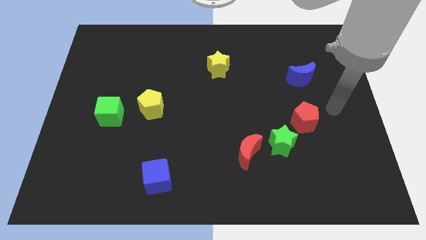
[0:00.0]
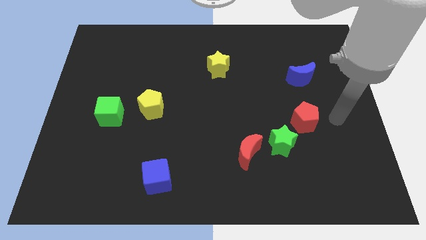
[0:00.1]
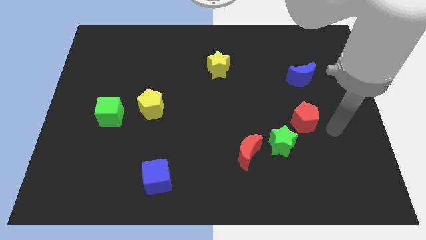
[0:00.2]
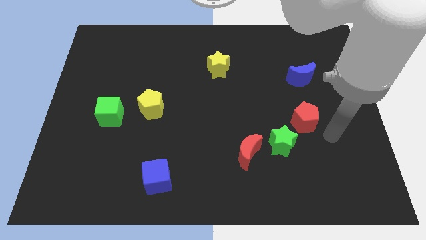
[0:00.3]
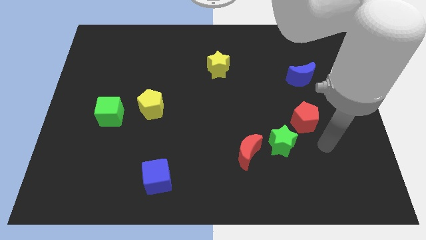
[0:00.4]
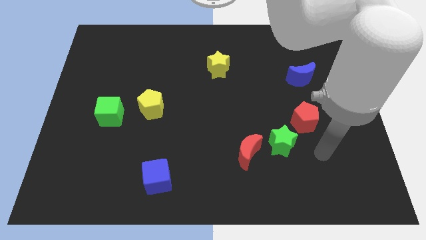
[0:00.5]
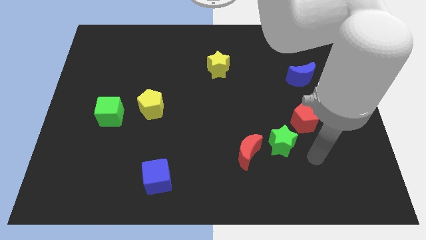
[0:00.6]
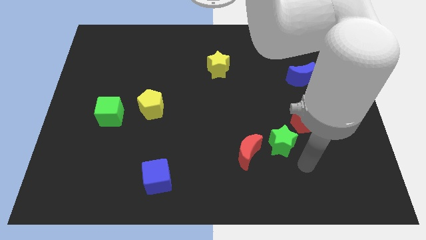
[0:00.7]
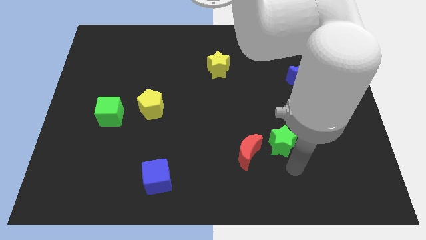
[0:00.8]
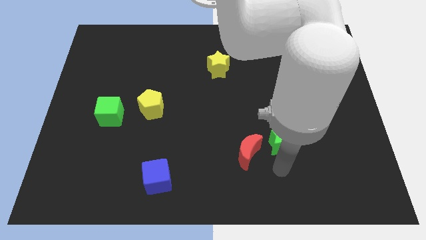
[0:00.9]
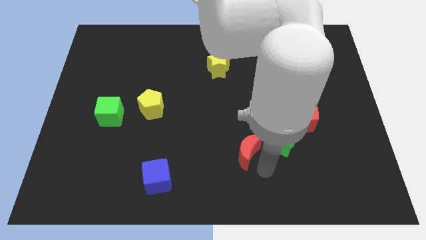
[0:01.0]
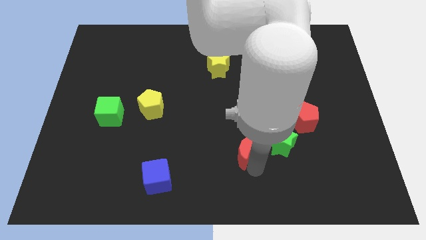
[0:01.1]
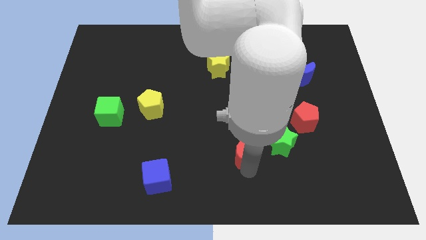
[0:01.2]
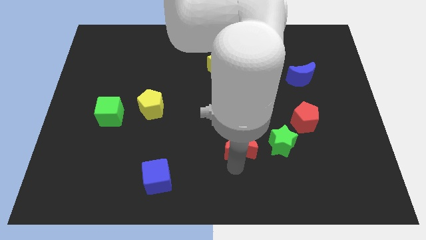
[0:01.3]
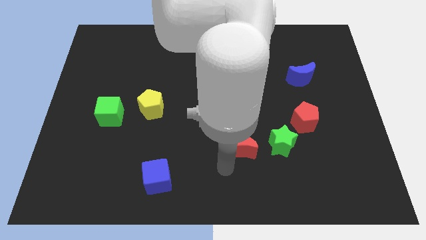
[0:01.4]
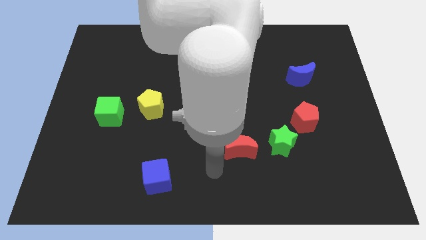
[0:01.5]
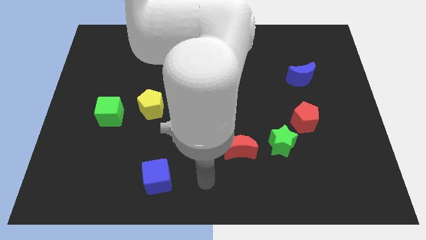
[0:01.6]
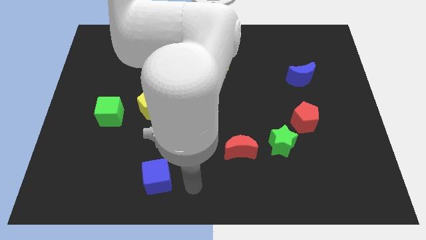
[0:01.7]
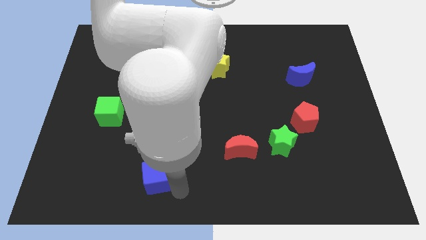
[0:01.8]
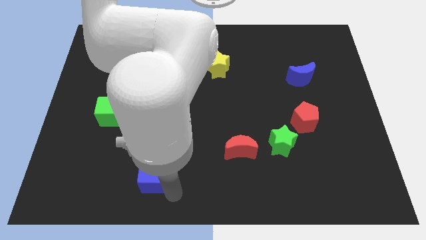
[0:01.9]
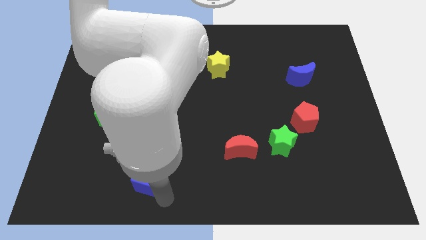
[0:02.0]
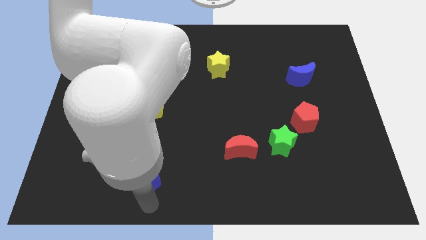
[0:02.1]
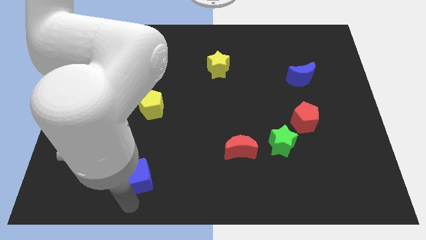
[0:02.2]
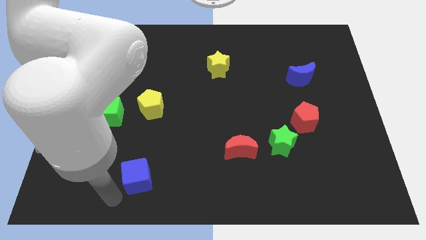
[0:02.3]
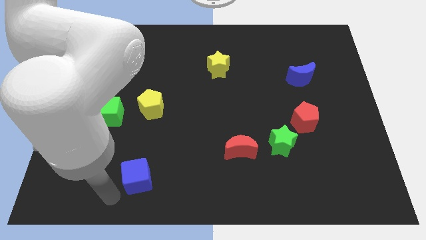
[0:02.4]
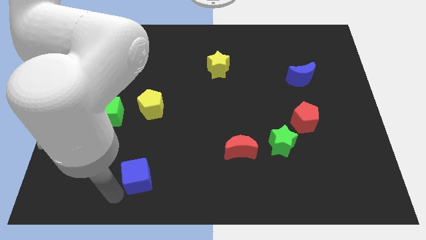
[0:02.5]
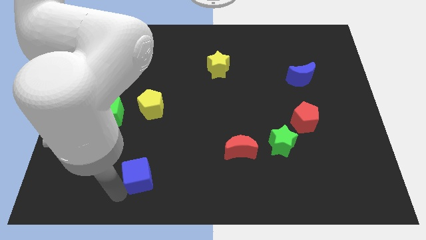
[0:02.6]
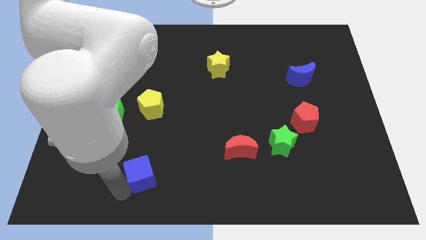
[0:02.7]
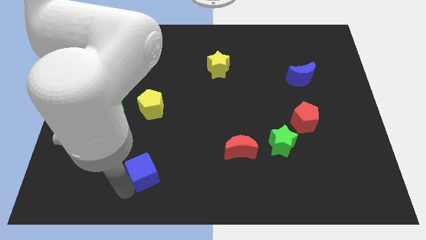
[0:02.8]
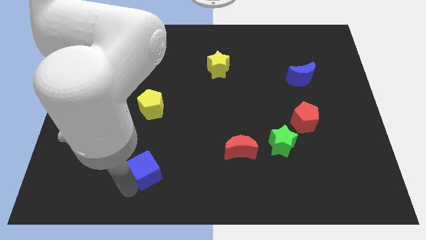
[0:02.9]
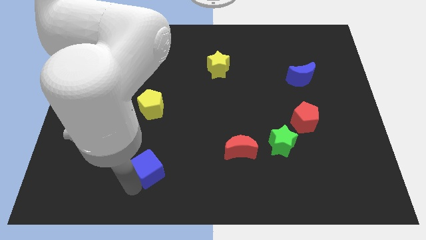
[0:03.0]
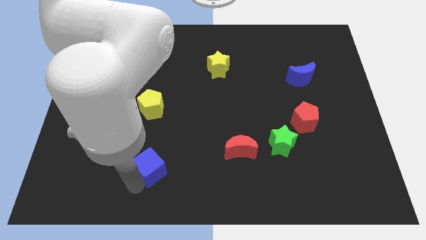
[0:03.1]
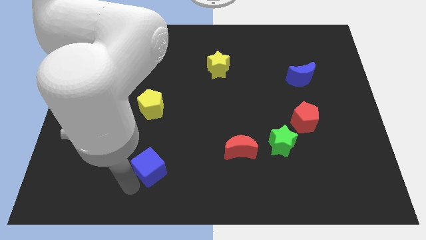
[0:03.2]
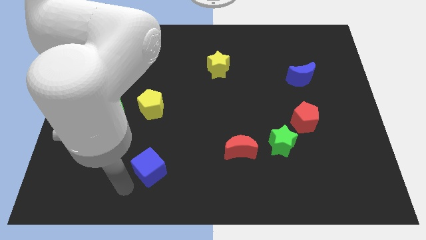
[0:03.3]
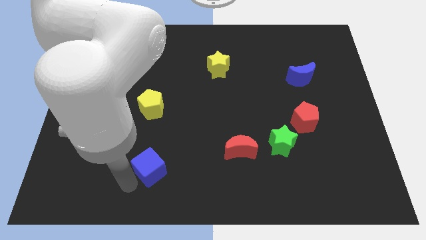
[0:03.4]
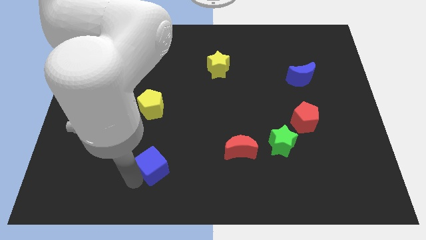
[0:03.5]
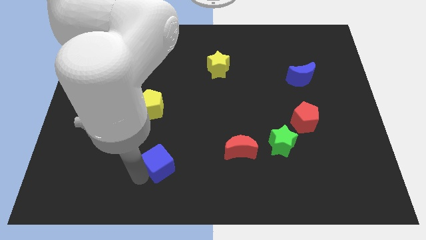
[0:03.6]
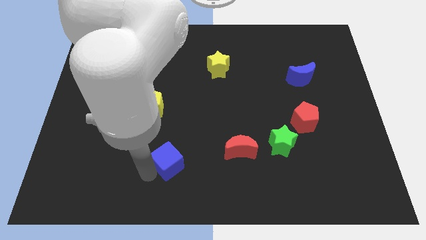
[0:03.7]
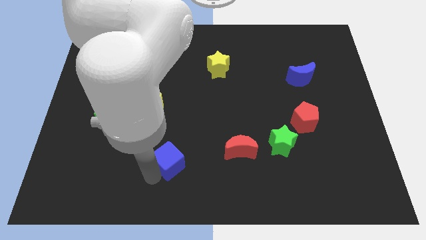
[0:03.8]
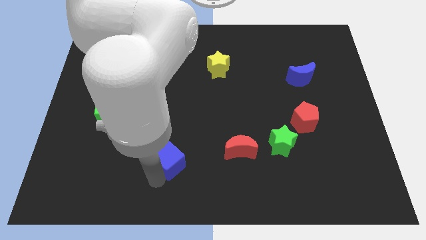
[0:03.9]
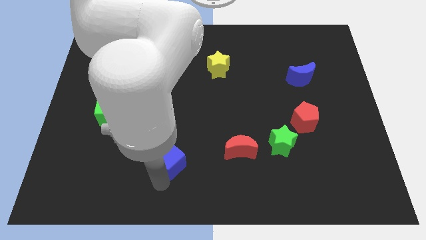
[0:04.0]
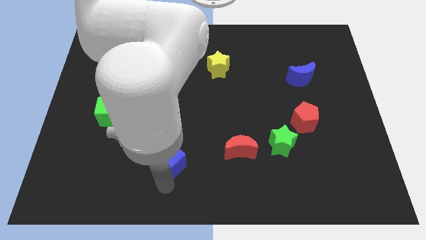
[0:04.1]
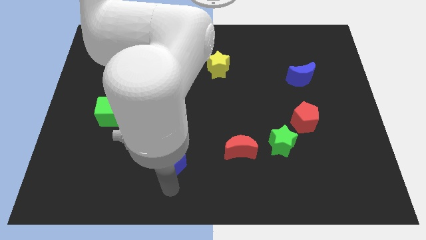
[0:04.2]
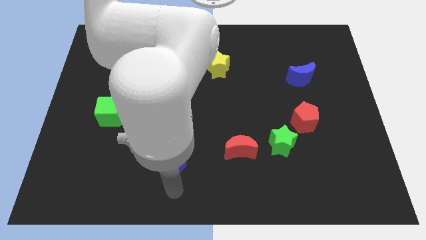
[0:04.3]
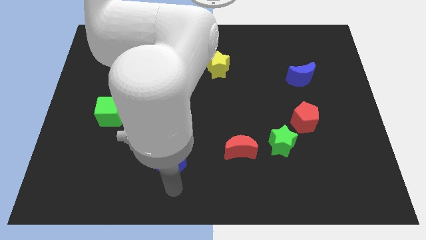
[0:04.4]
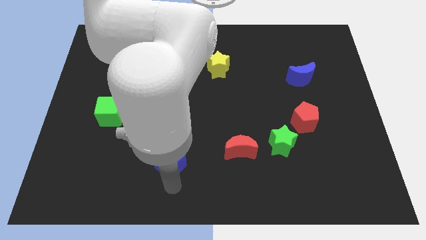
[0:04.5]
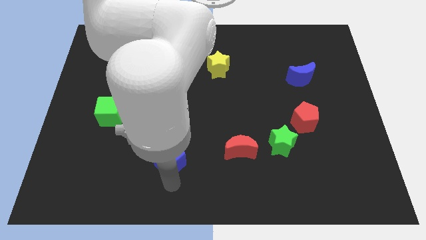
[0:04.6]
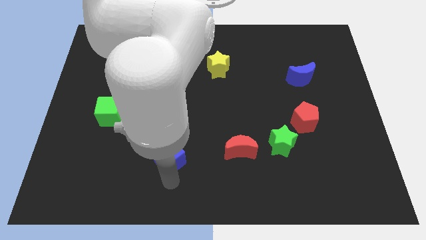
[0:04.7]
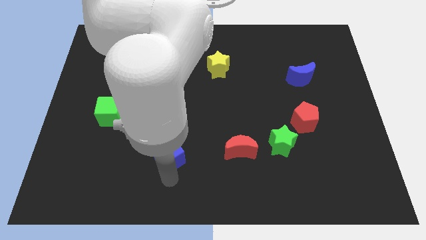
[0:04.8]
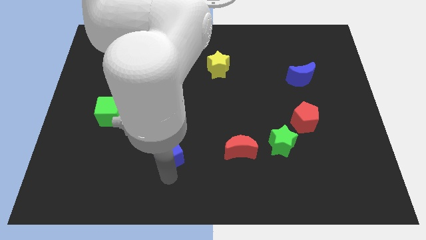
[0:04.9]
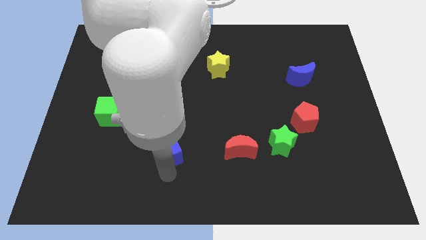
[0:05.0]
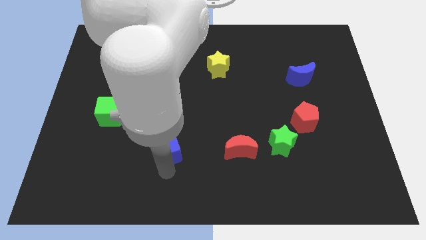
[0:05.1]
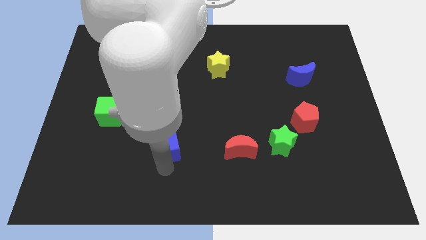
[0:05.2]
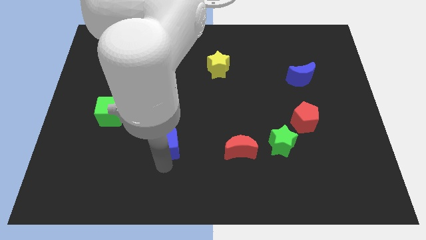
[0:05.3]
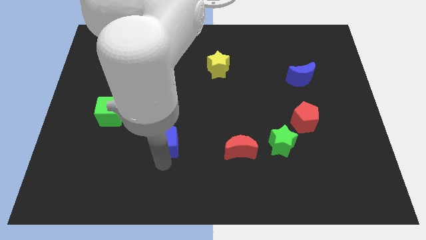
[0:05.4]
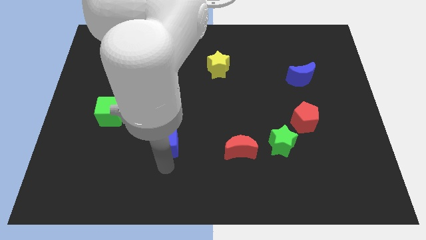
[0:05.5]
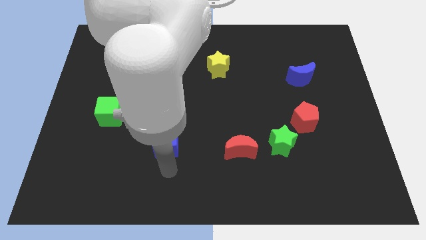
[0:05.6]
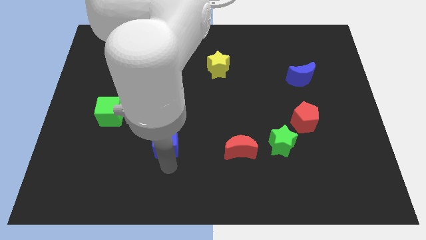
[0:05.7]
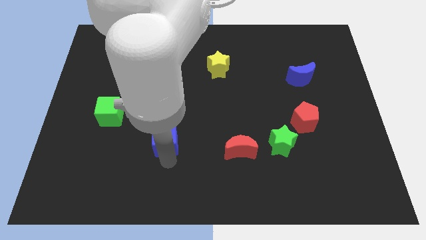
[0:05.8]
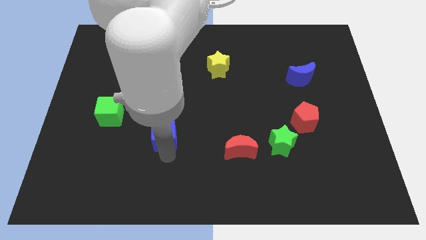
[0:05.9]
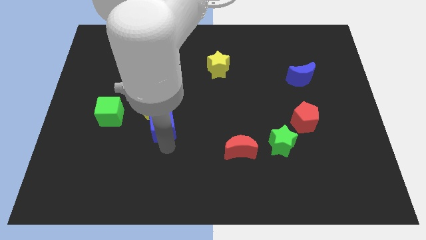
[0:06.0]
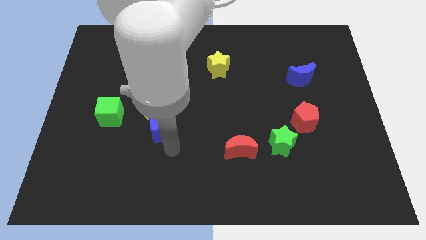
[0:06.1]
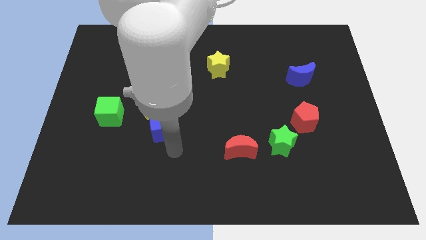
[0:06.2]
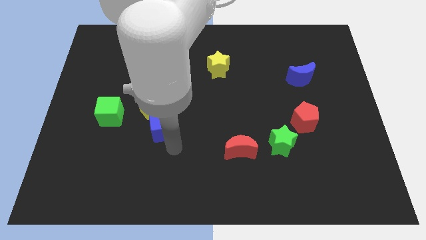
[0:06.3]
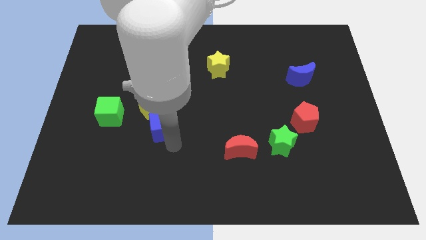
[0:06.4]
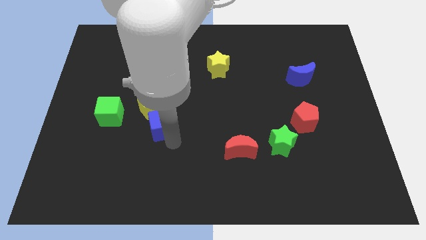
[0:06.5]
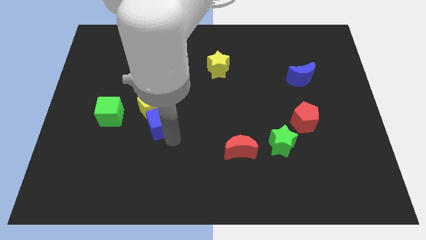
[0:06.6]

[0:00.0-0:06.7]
move the blue cube to the yellow pentagon

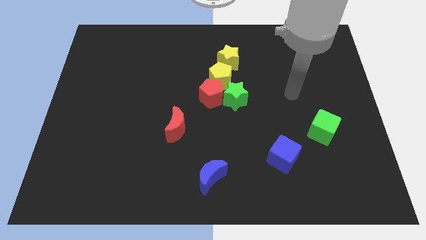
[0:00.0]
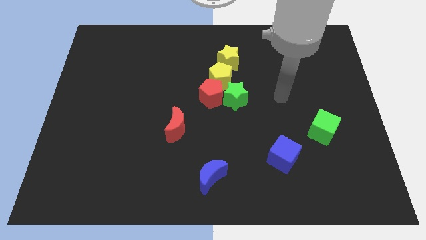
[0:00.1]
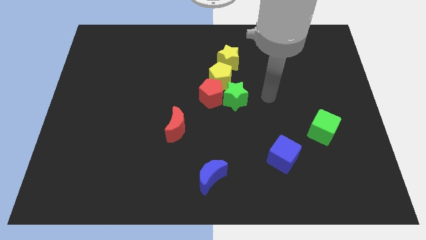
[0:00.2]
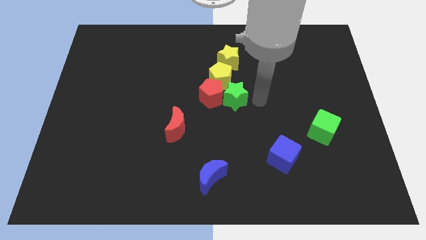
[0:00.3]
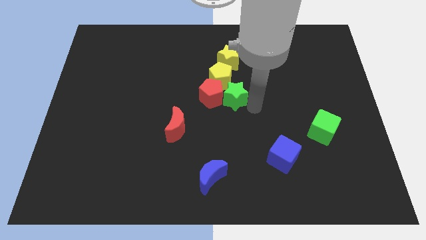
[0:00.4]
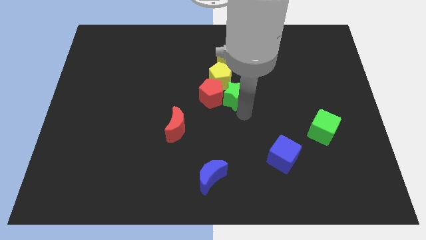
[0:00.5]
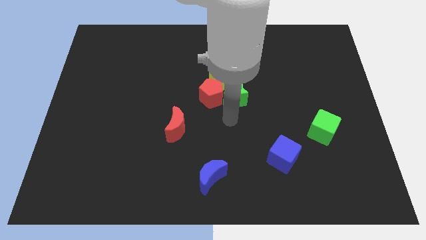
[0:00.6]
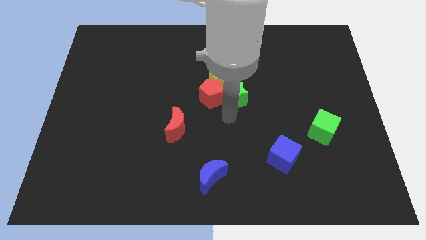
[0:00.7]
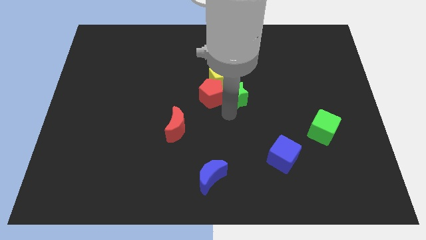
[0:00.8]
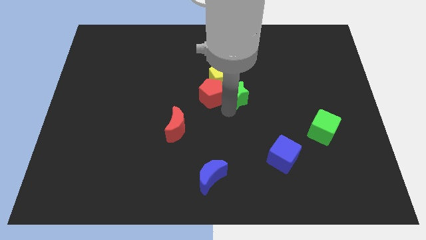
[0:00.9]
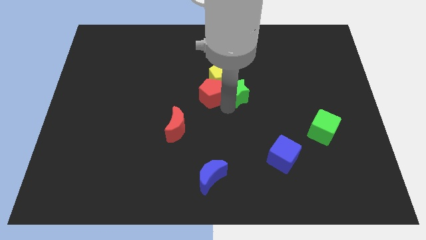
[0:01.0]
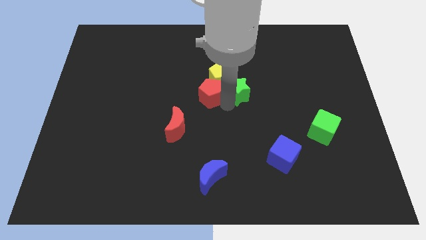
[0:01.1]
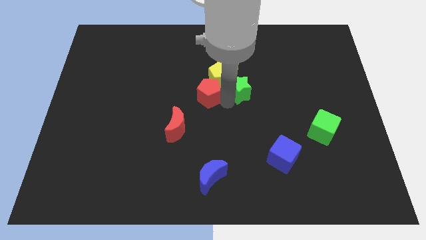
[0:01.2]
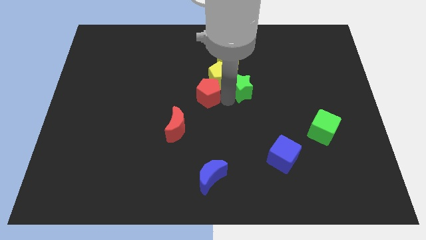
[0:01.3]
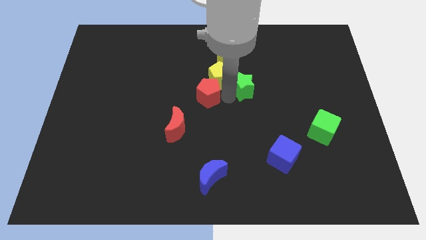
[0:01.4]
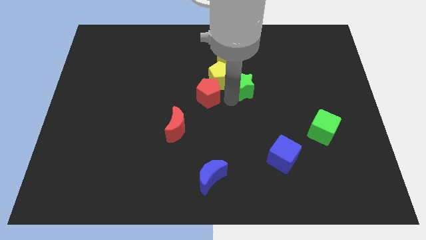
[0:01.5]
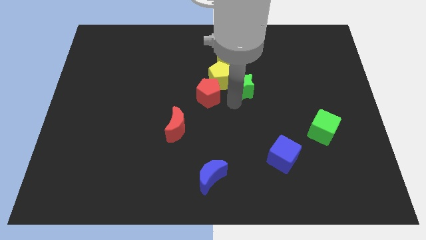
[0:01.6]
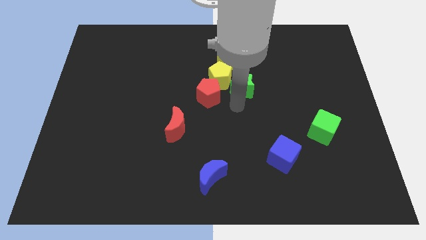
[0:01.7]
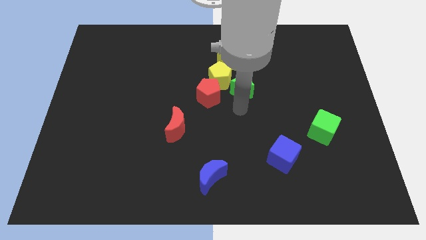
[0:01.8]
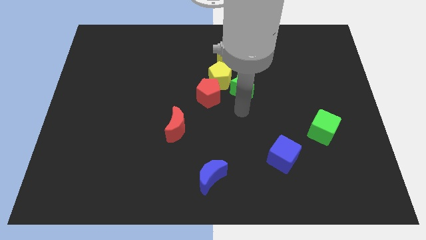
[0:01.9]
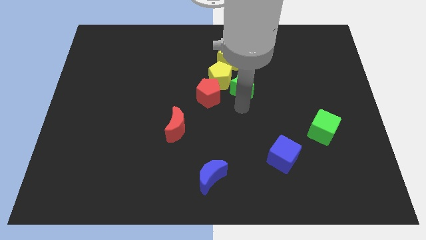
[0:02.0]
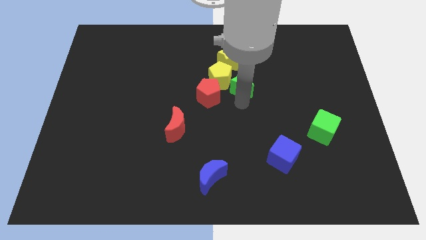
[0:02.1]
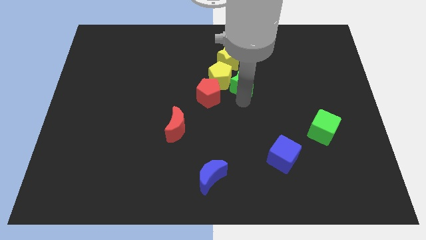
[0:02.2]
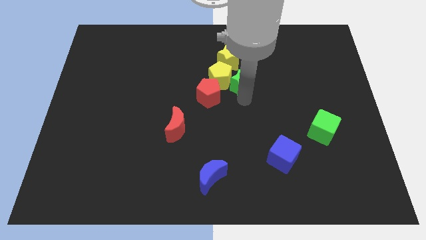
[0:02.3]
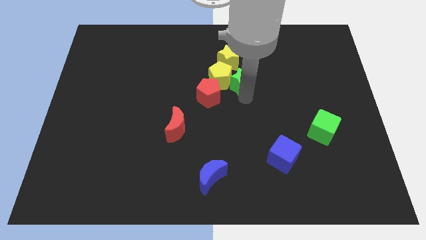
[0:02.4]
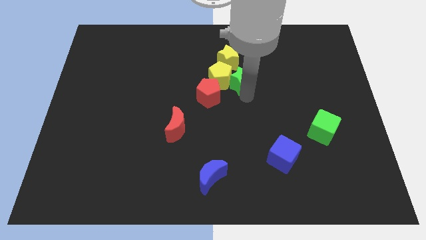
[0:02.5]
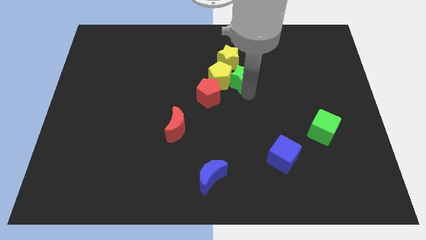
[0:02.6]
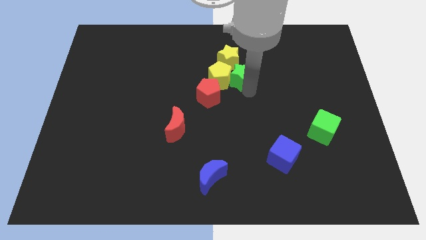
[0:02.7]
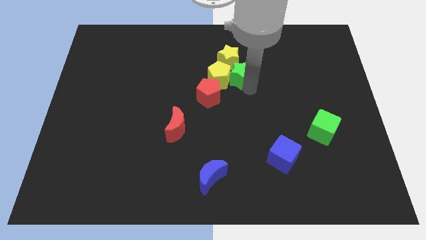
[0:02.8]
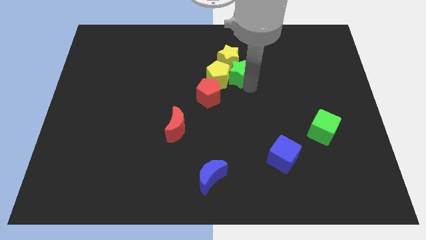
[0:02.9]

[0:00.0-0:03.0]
push the green star towards the yellow star
